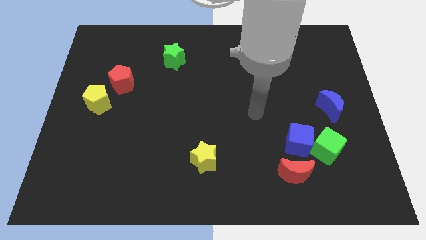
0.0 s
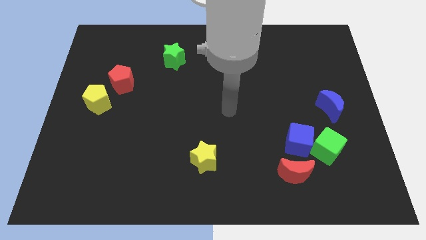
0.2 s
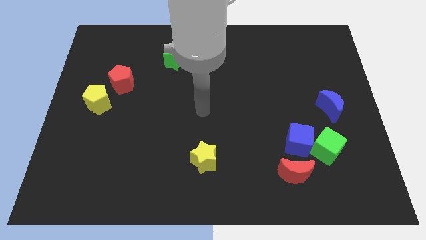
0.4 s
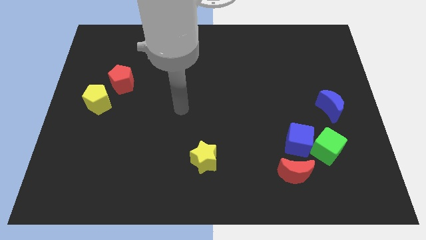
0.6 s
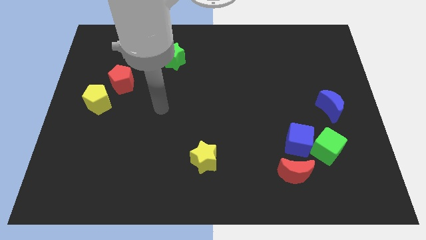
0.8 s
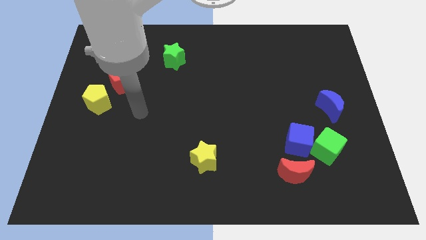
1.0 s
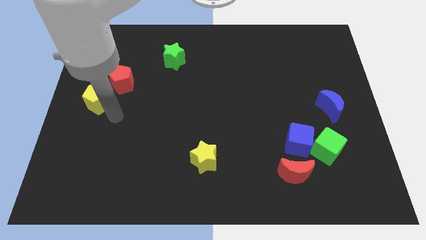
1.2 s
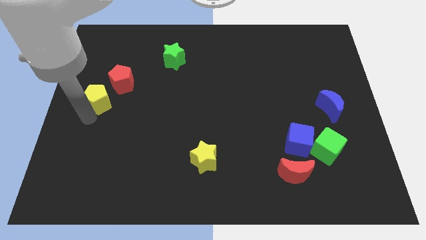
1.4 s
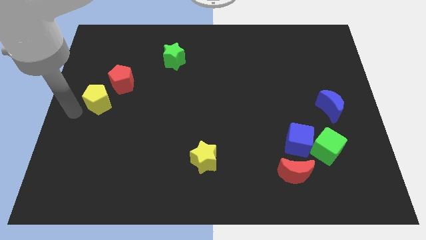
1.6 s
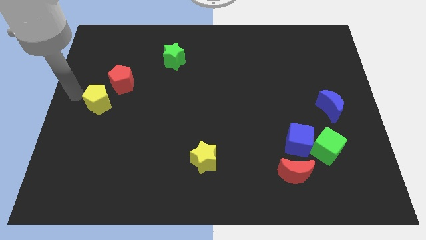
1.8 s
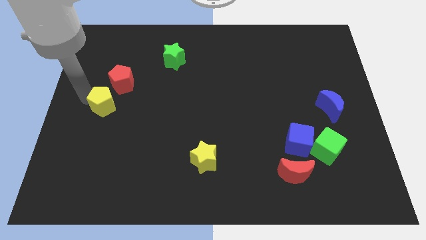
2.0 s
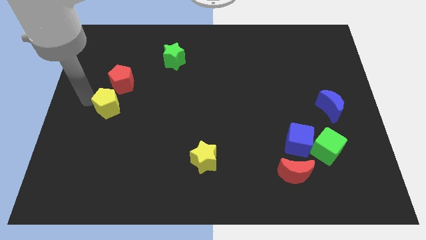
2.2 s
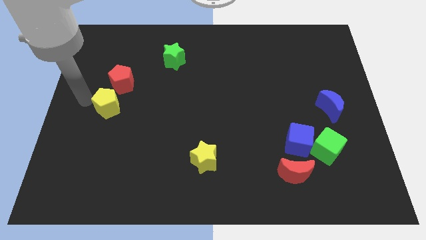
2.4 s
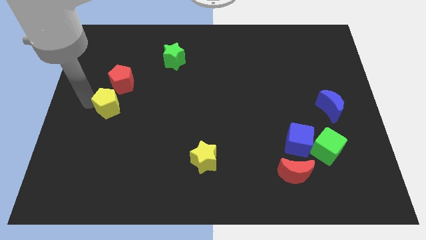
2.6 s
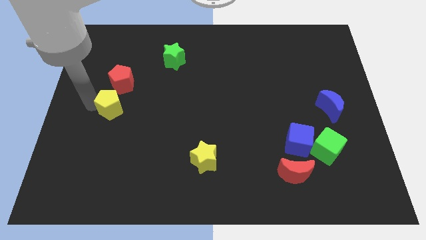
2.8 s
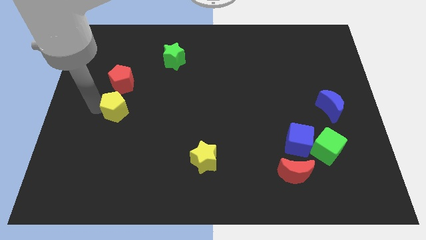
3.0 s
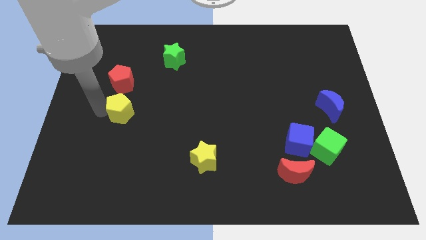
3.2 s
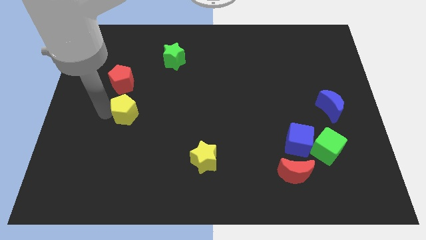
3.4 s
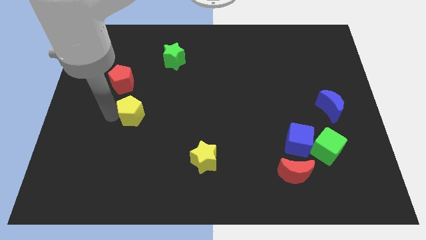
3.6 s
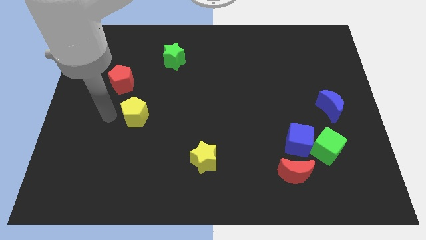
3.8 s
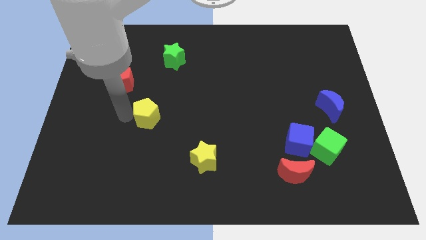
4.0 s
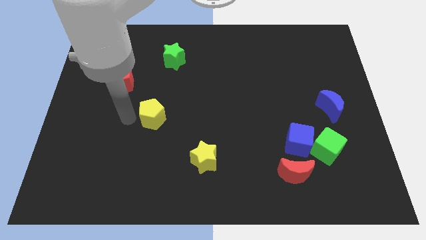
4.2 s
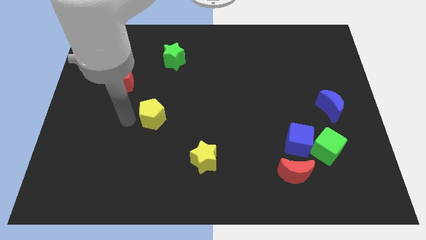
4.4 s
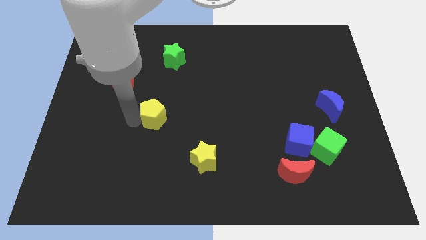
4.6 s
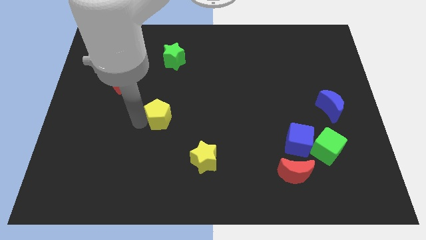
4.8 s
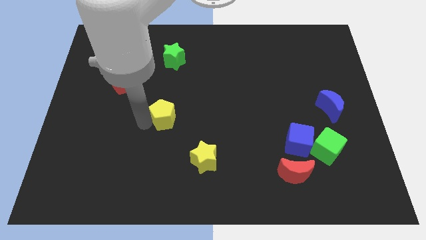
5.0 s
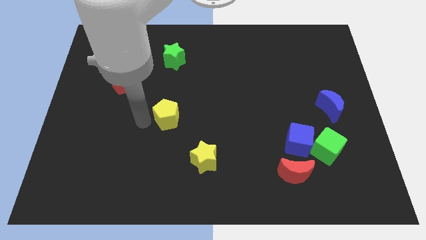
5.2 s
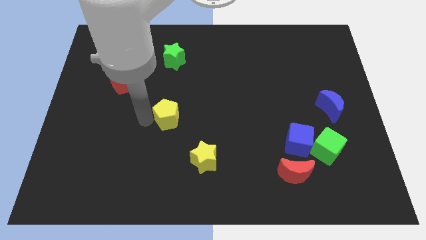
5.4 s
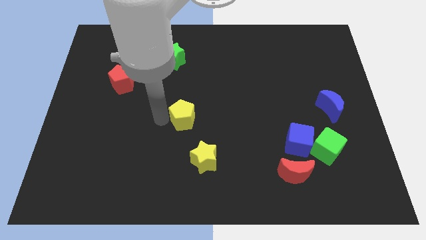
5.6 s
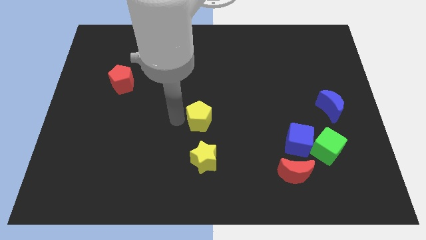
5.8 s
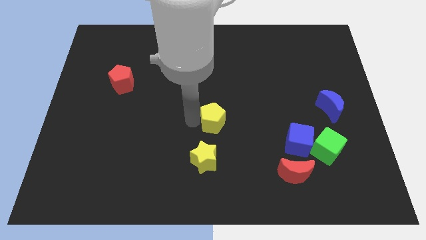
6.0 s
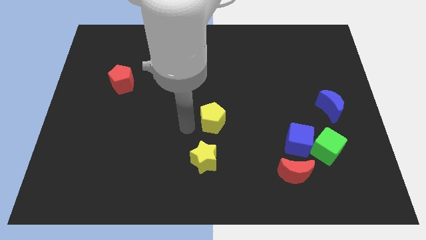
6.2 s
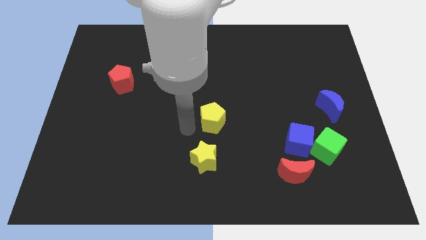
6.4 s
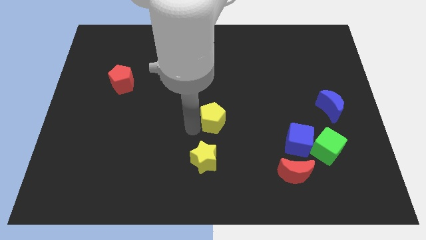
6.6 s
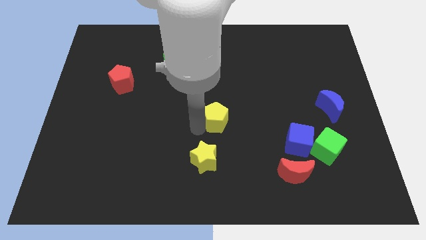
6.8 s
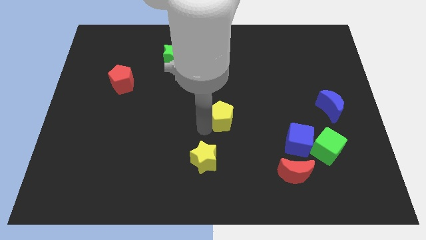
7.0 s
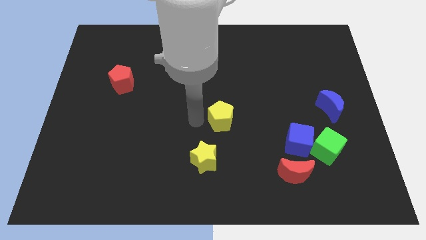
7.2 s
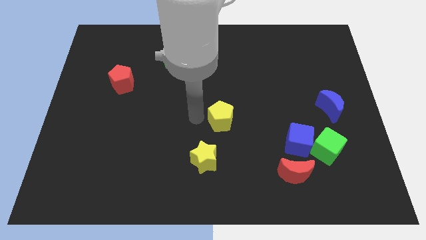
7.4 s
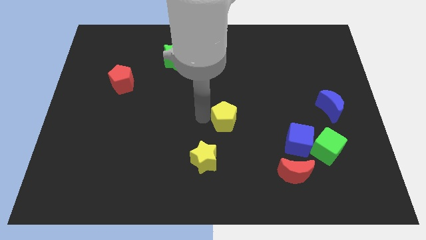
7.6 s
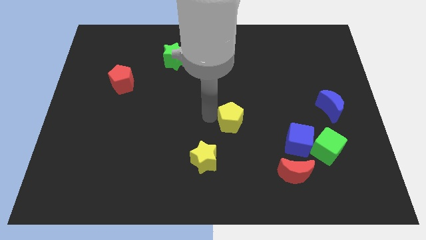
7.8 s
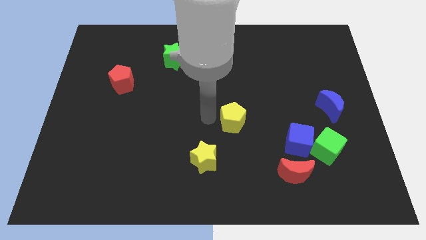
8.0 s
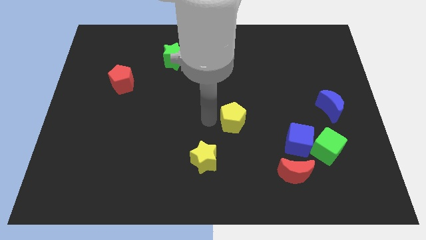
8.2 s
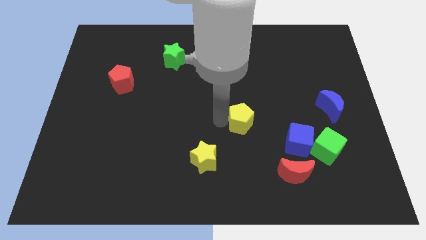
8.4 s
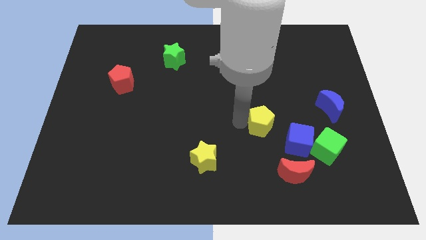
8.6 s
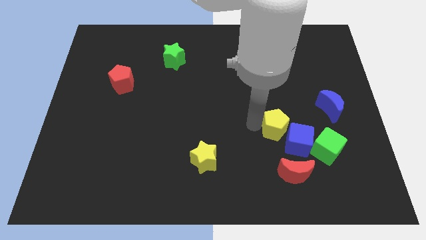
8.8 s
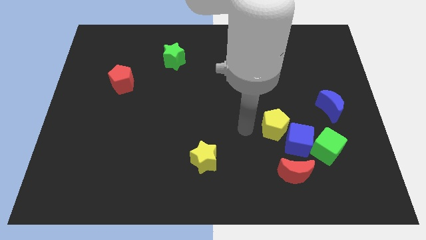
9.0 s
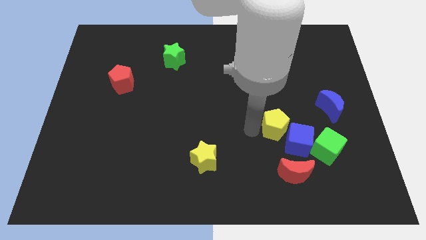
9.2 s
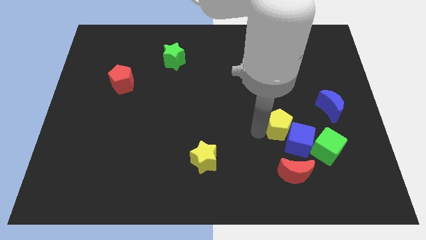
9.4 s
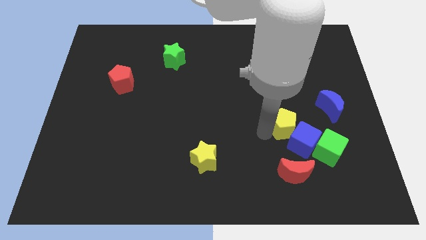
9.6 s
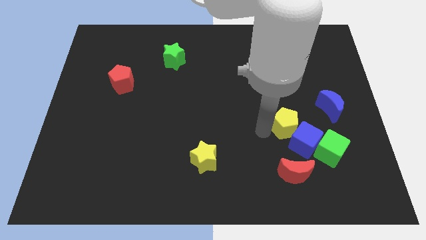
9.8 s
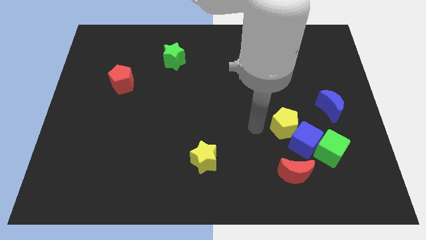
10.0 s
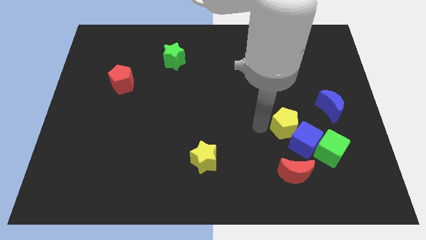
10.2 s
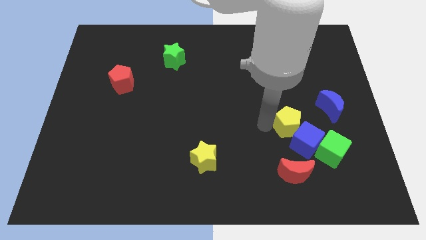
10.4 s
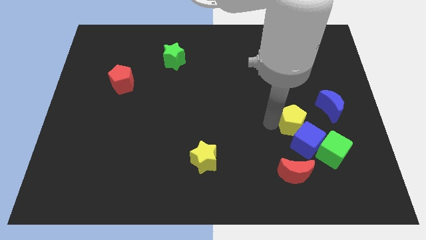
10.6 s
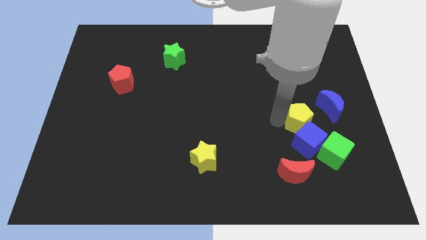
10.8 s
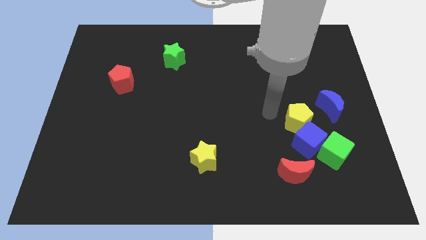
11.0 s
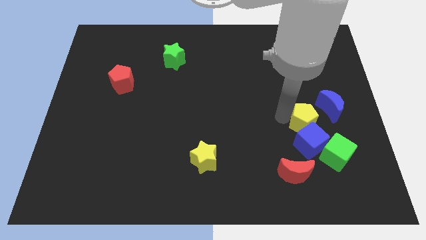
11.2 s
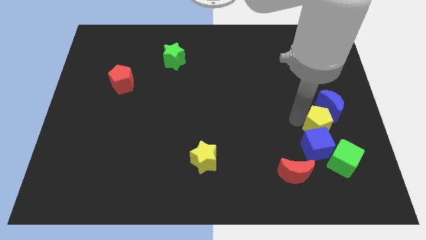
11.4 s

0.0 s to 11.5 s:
push the yellow pentagon below the blue moon

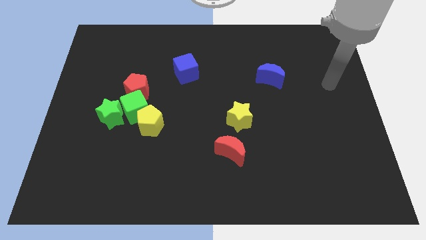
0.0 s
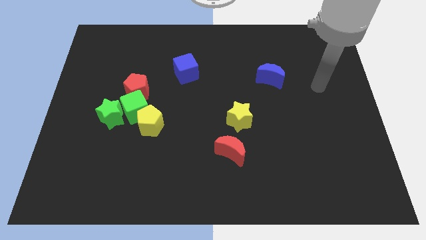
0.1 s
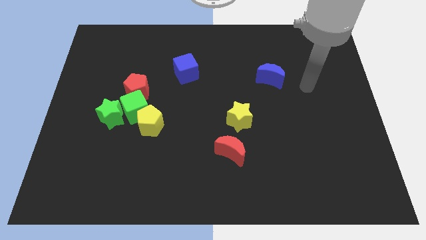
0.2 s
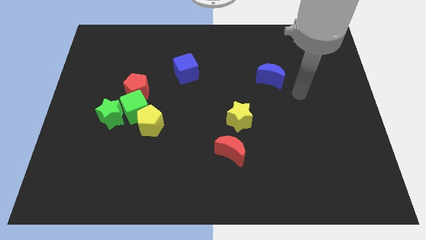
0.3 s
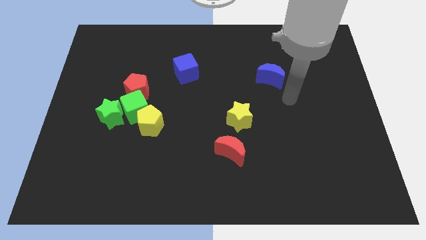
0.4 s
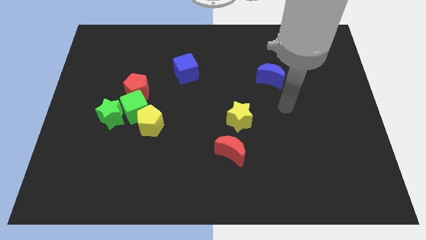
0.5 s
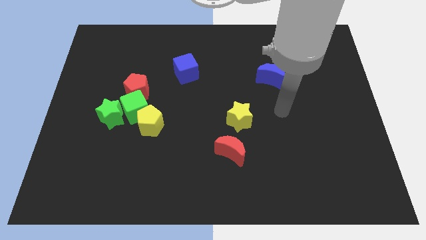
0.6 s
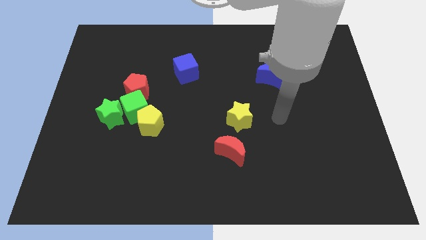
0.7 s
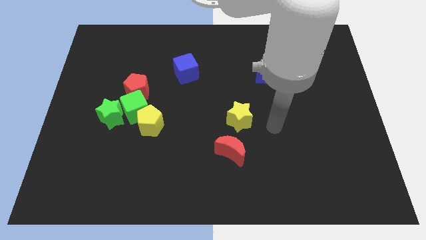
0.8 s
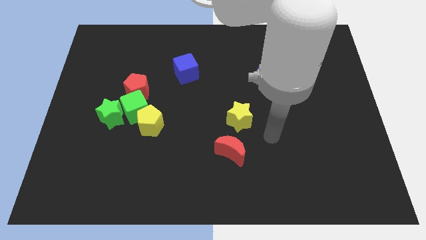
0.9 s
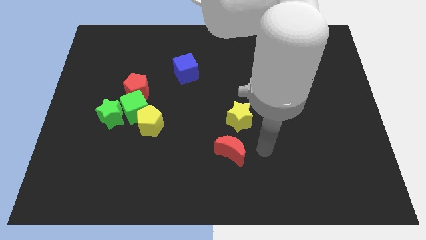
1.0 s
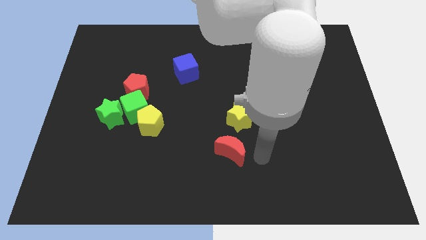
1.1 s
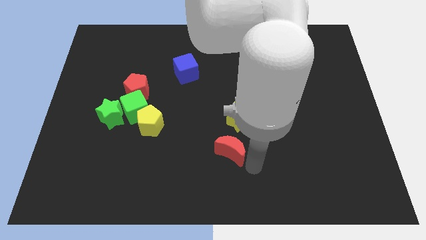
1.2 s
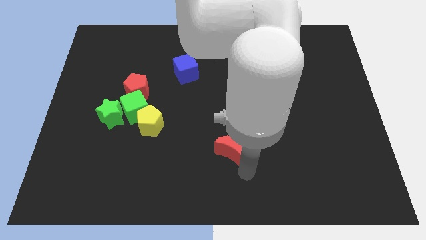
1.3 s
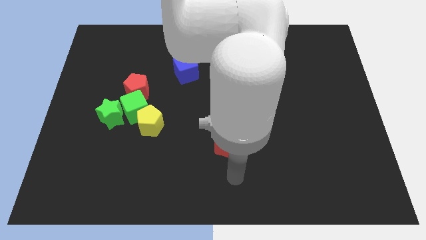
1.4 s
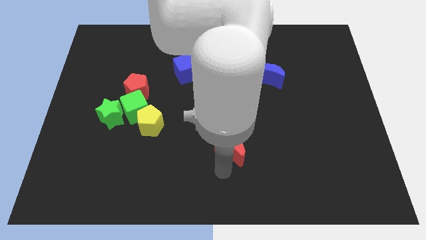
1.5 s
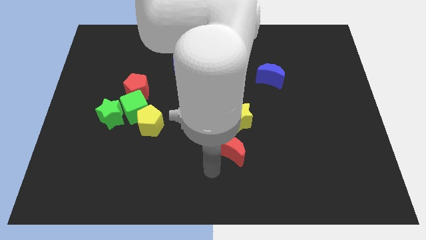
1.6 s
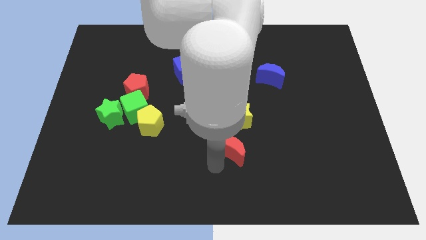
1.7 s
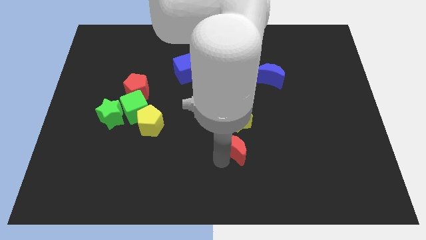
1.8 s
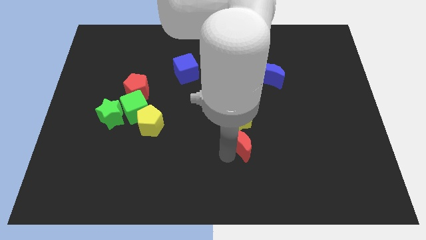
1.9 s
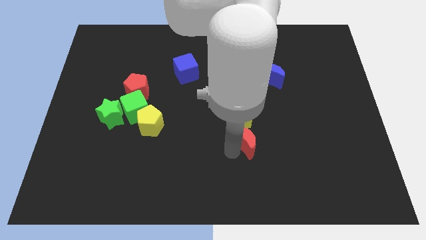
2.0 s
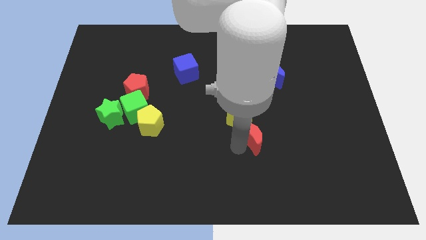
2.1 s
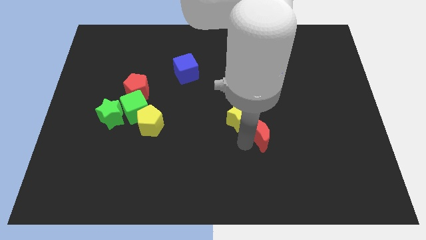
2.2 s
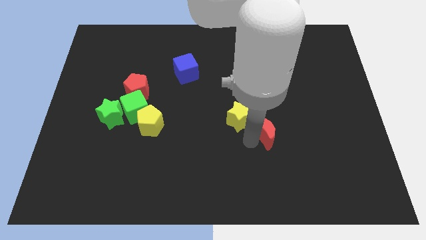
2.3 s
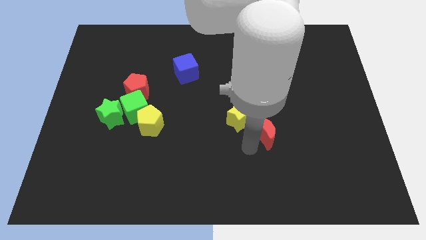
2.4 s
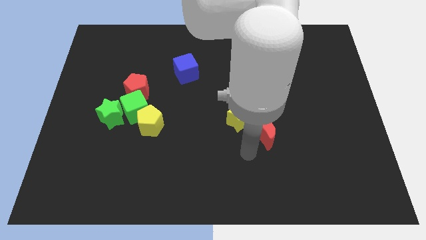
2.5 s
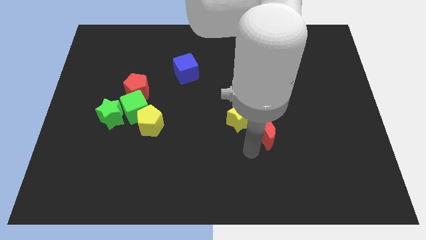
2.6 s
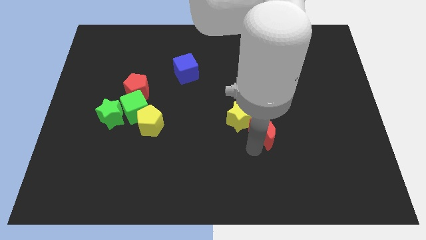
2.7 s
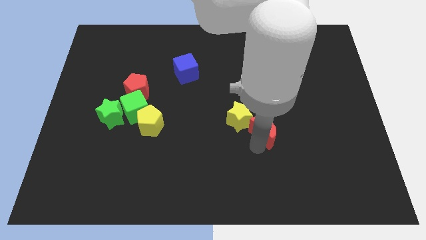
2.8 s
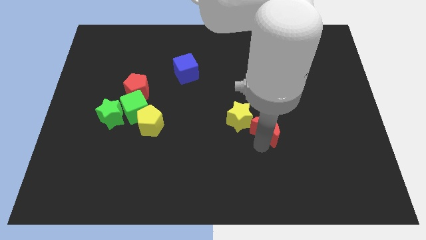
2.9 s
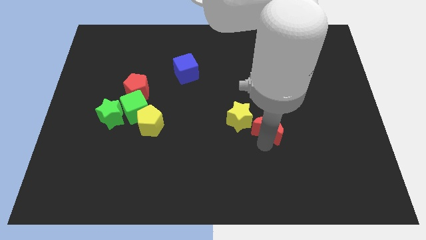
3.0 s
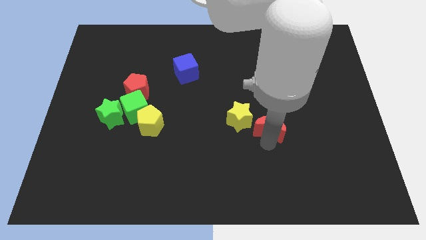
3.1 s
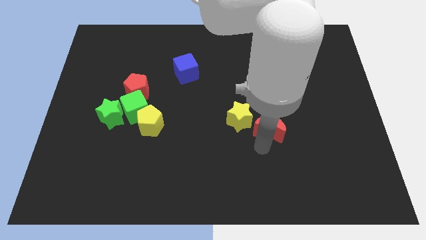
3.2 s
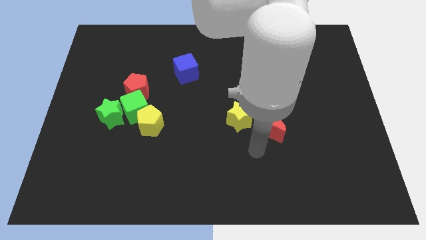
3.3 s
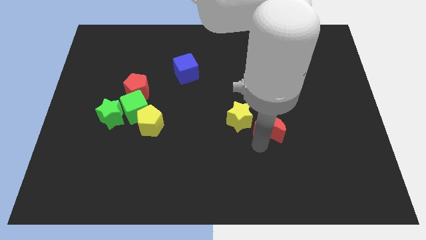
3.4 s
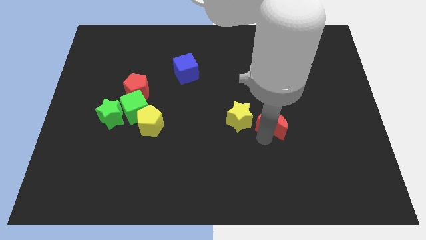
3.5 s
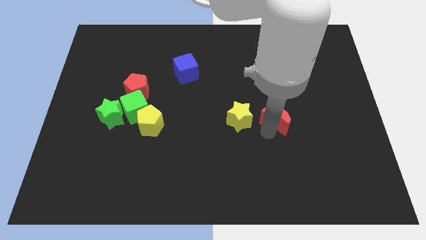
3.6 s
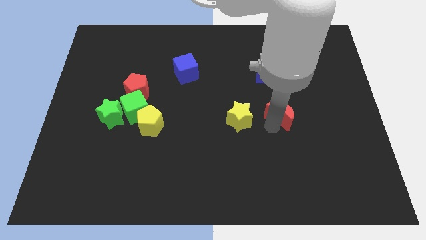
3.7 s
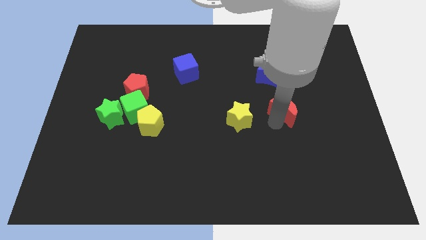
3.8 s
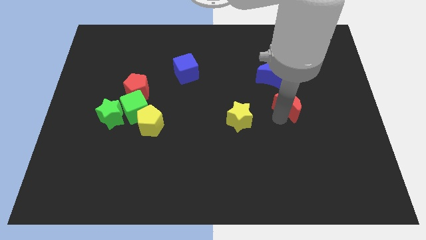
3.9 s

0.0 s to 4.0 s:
slide the red moon to the bottom right side of the blue moon
